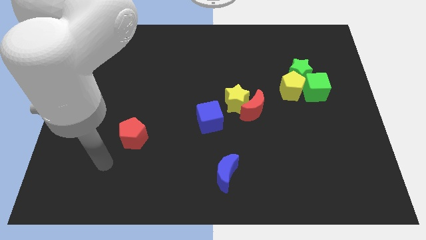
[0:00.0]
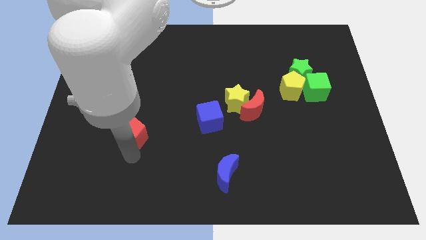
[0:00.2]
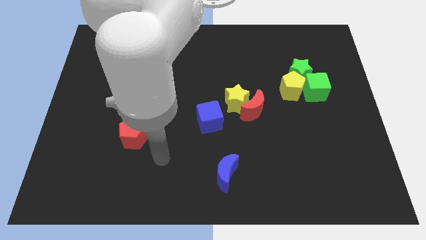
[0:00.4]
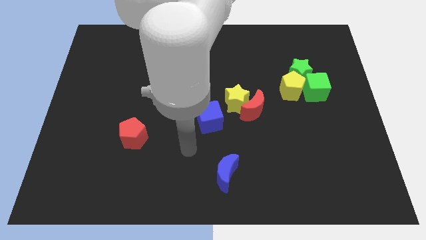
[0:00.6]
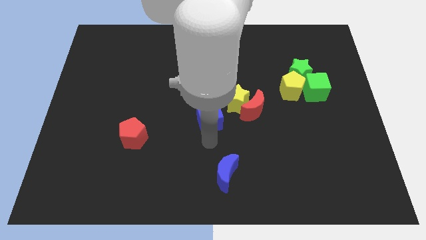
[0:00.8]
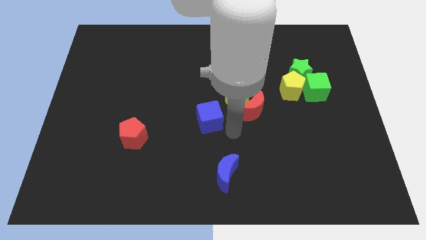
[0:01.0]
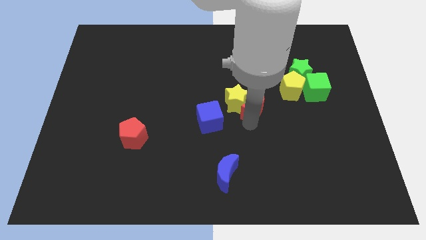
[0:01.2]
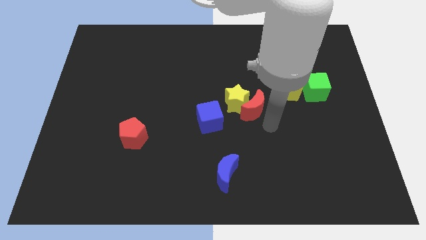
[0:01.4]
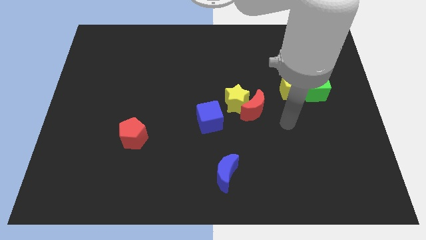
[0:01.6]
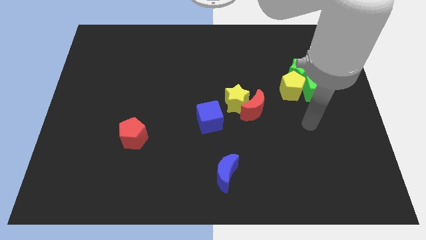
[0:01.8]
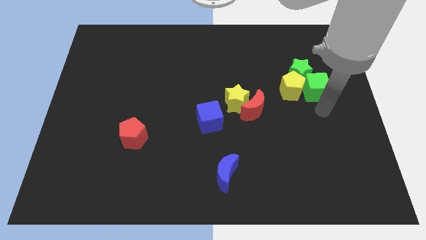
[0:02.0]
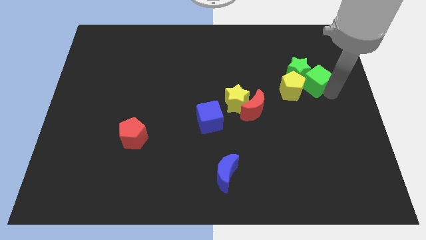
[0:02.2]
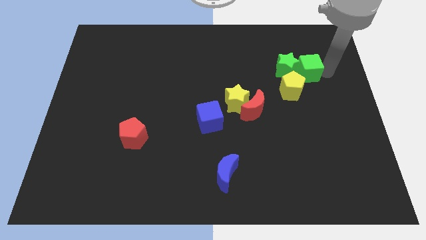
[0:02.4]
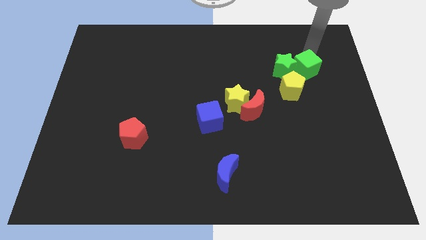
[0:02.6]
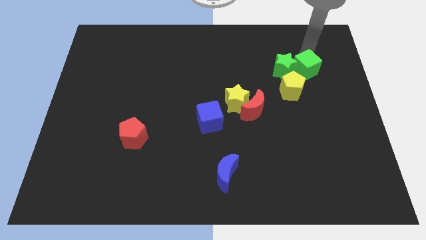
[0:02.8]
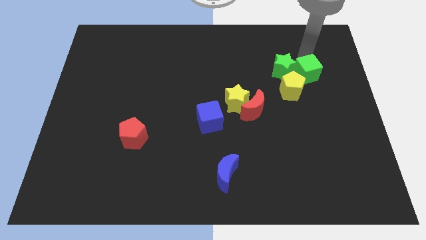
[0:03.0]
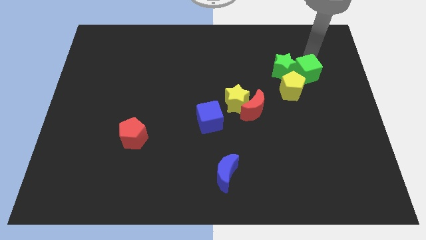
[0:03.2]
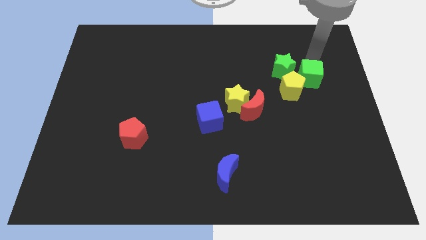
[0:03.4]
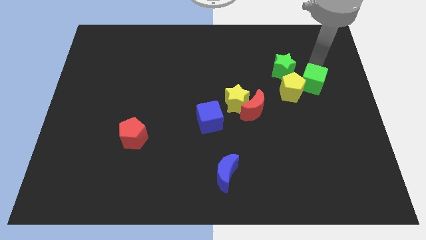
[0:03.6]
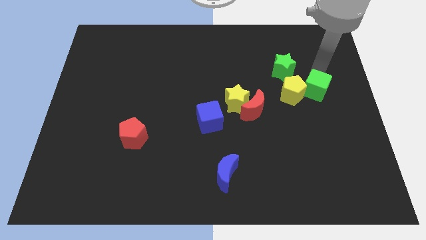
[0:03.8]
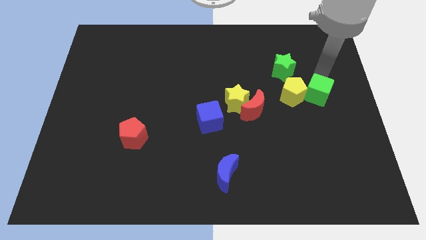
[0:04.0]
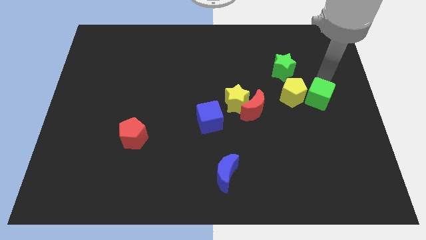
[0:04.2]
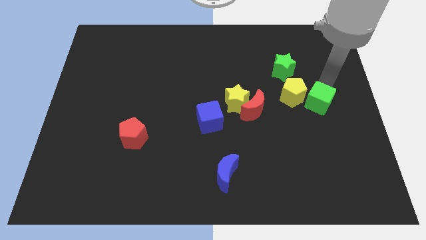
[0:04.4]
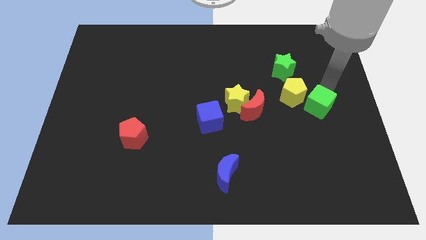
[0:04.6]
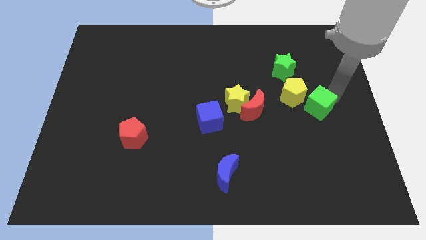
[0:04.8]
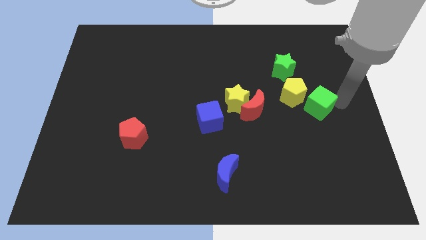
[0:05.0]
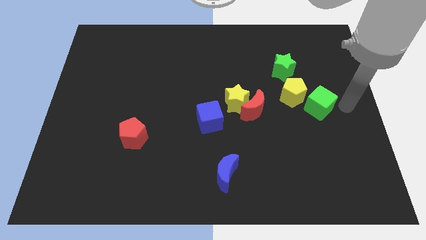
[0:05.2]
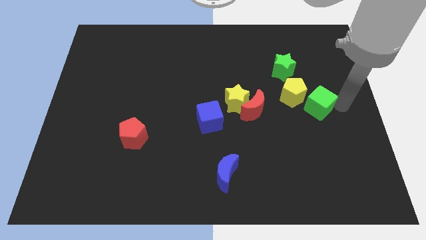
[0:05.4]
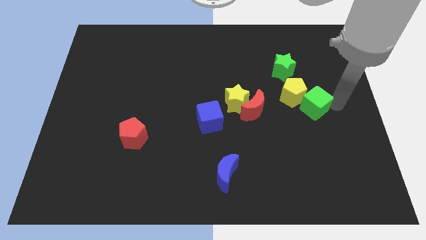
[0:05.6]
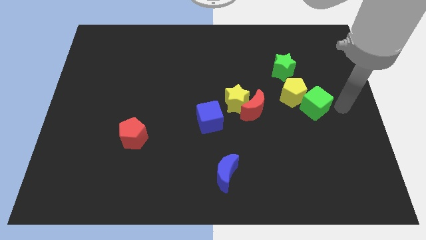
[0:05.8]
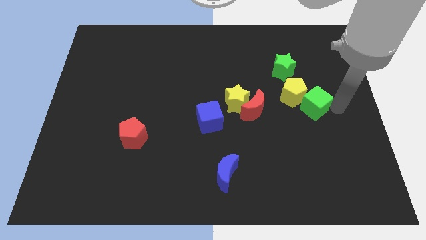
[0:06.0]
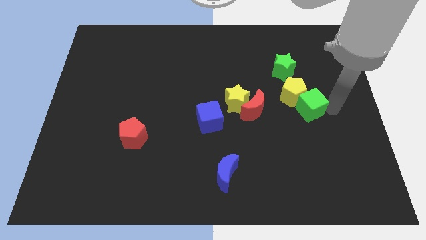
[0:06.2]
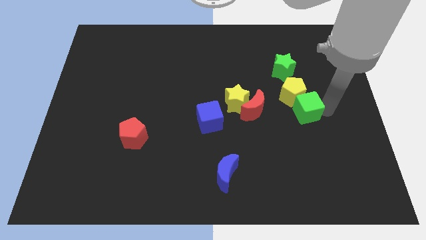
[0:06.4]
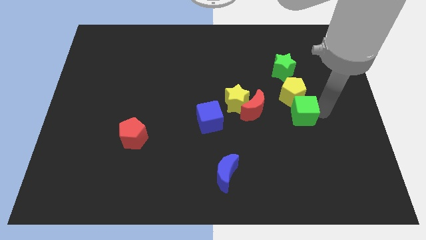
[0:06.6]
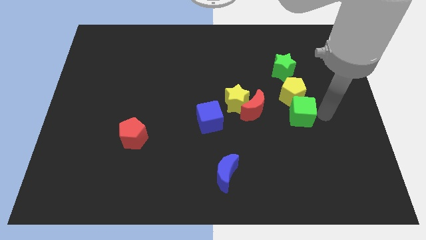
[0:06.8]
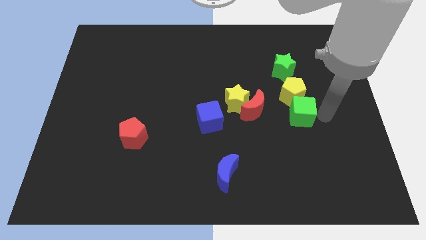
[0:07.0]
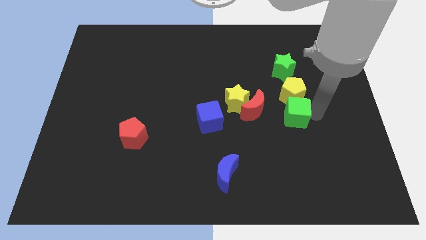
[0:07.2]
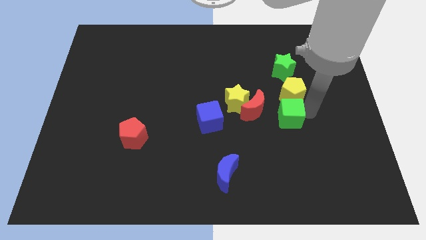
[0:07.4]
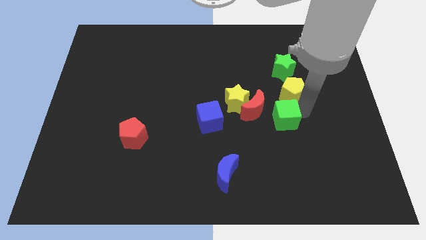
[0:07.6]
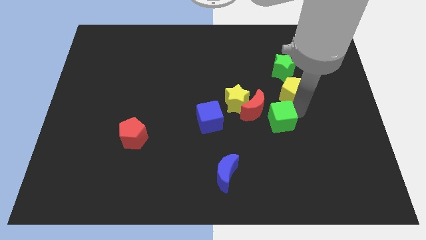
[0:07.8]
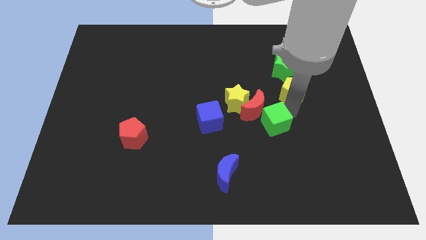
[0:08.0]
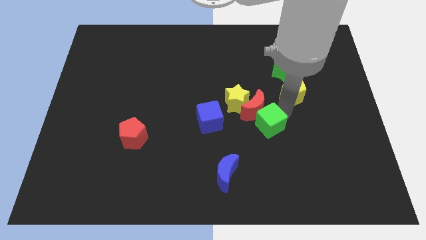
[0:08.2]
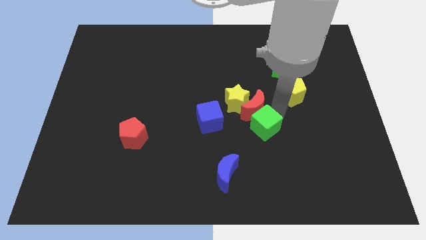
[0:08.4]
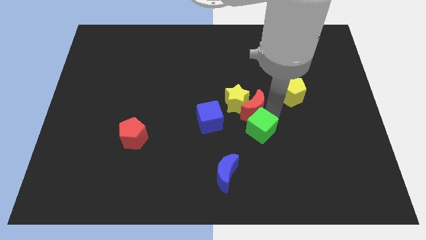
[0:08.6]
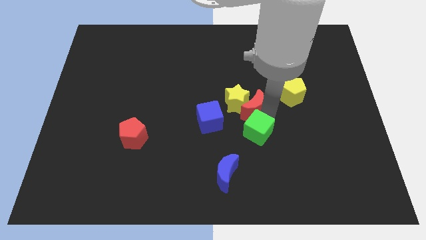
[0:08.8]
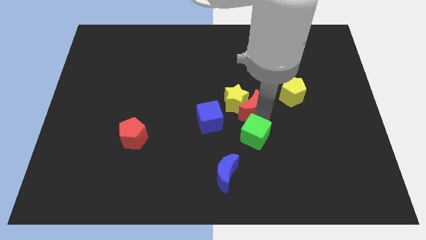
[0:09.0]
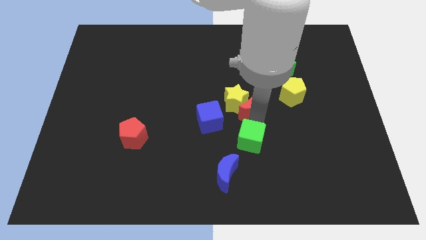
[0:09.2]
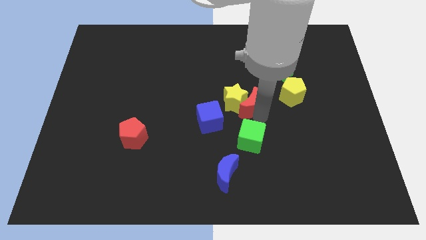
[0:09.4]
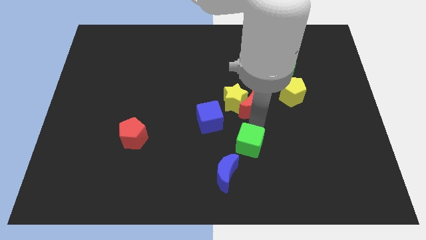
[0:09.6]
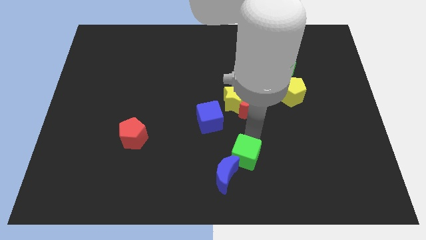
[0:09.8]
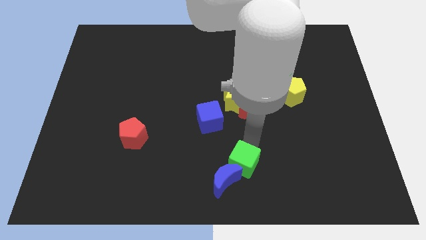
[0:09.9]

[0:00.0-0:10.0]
slide the green cube close to the blue moon

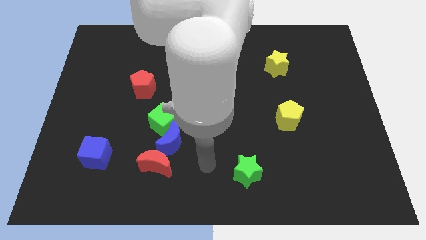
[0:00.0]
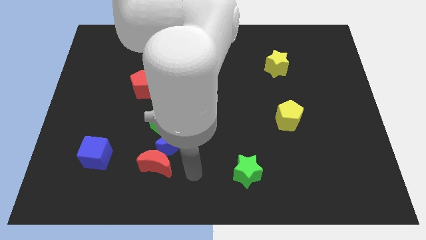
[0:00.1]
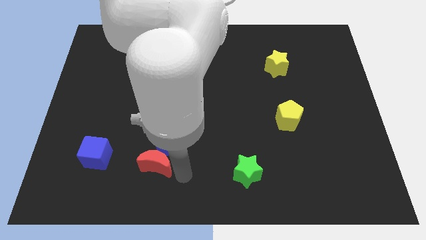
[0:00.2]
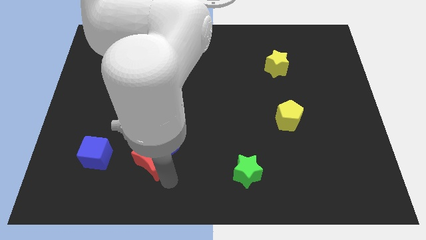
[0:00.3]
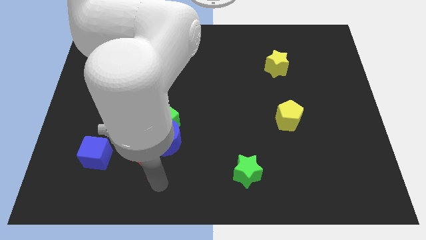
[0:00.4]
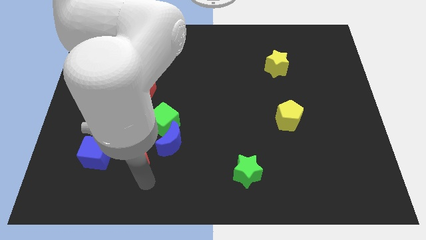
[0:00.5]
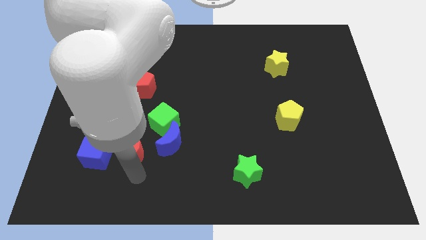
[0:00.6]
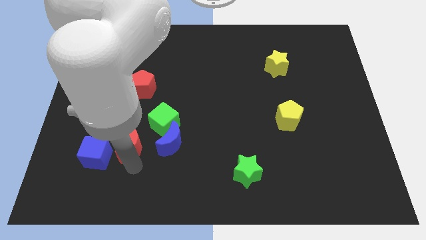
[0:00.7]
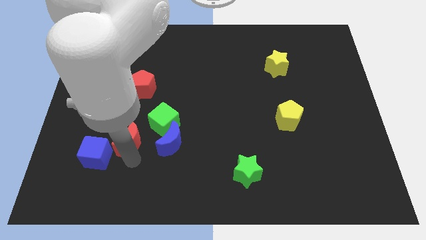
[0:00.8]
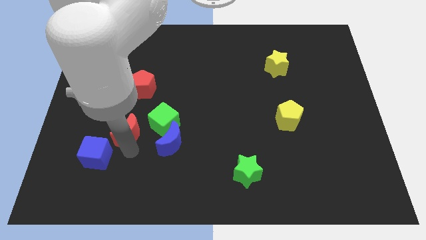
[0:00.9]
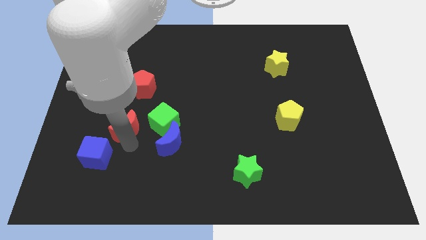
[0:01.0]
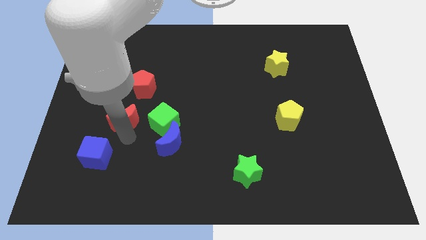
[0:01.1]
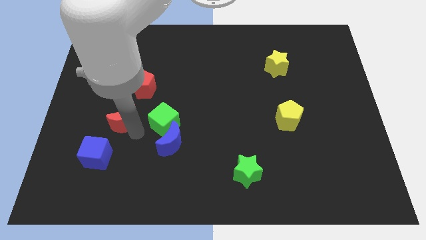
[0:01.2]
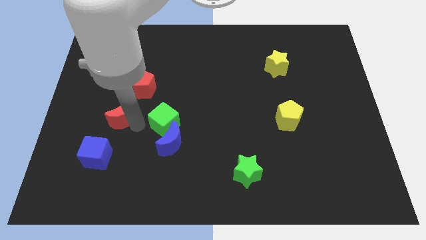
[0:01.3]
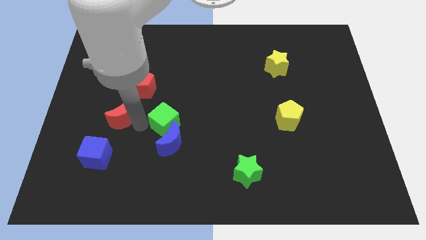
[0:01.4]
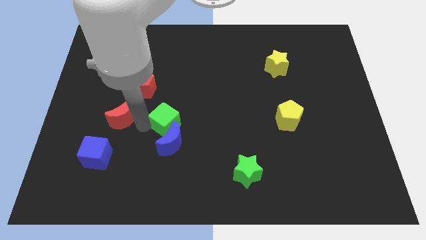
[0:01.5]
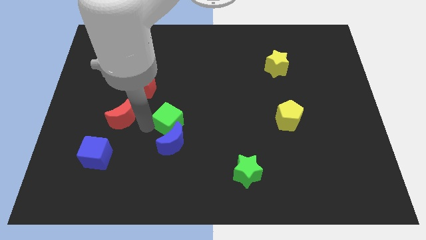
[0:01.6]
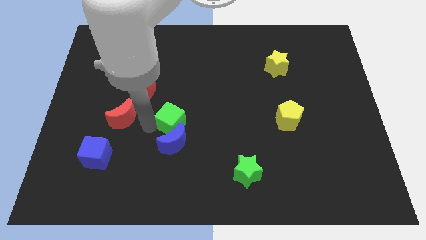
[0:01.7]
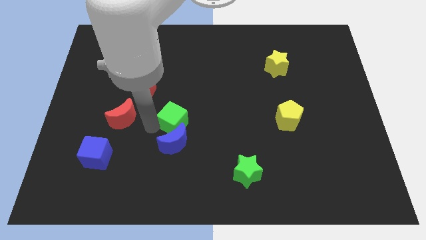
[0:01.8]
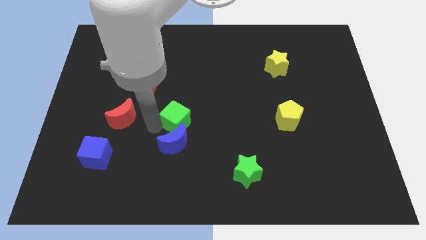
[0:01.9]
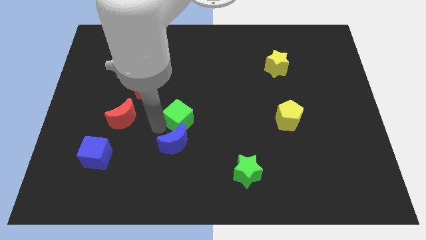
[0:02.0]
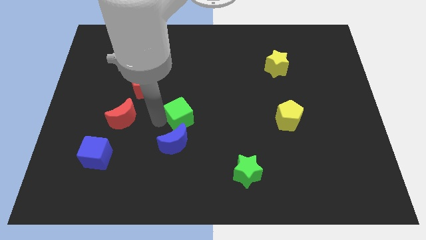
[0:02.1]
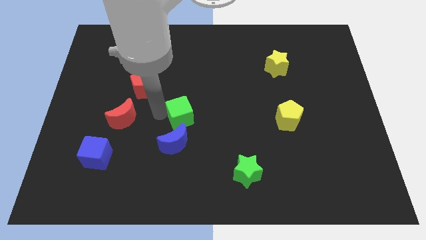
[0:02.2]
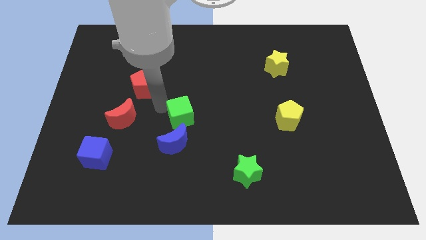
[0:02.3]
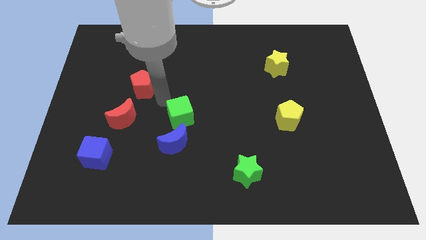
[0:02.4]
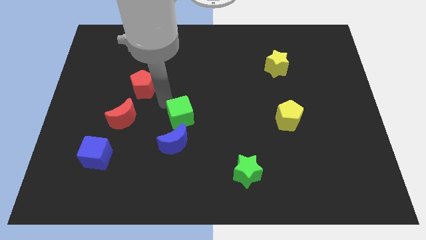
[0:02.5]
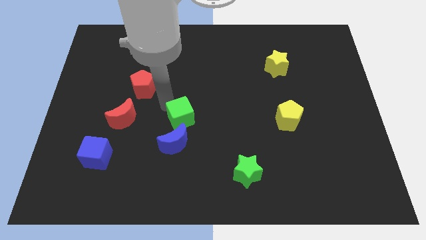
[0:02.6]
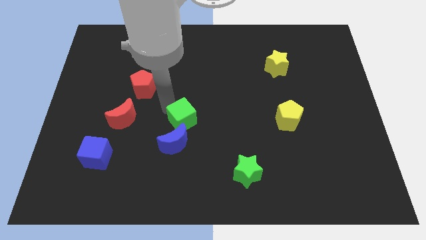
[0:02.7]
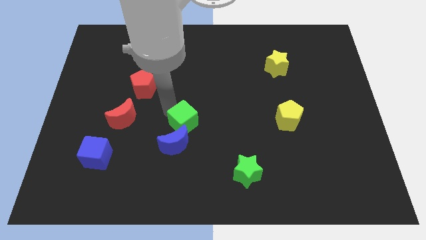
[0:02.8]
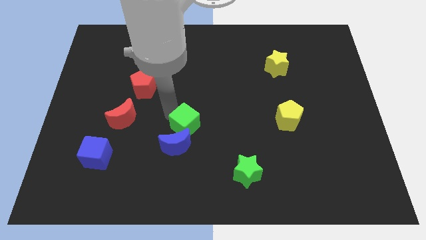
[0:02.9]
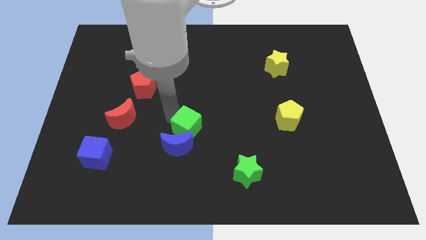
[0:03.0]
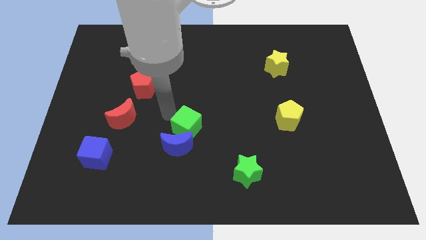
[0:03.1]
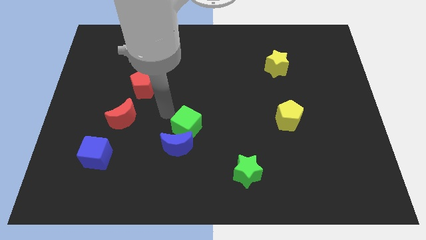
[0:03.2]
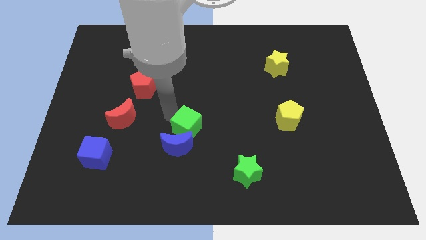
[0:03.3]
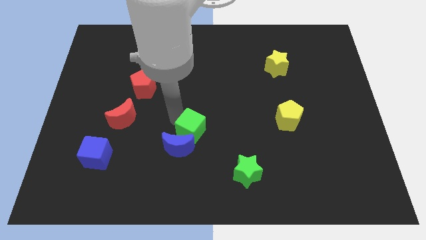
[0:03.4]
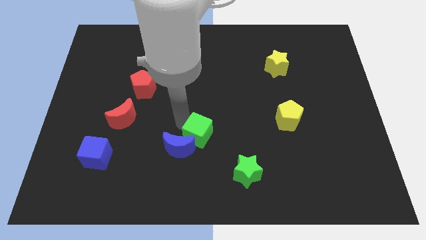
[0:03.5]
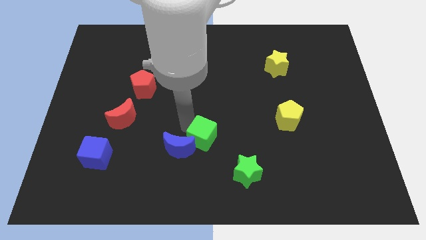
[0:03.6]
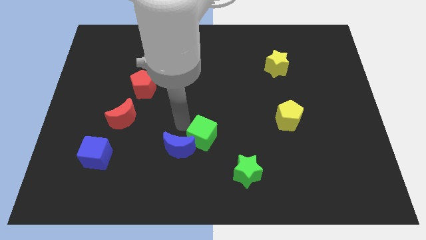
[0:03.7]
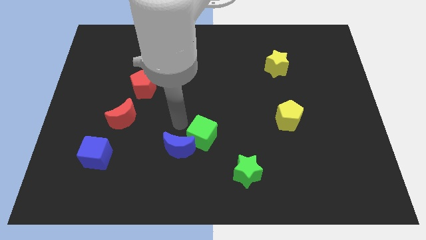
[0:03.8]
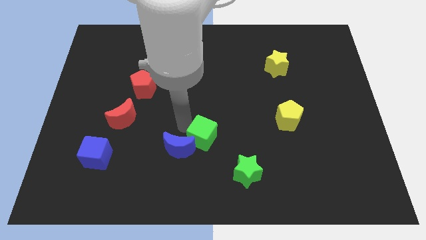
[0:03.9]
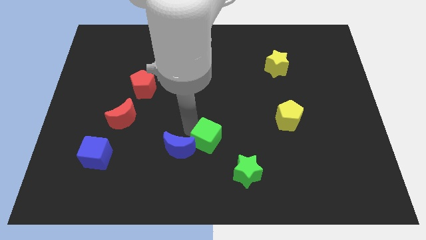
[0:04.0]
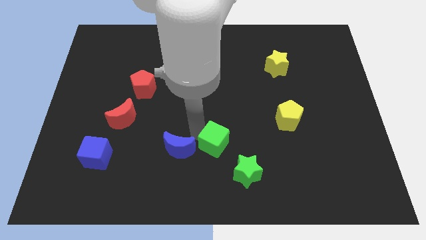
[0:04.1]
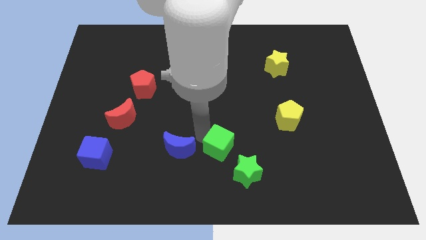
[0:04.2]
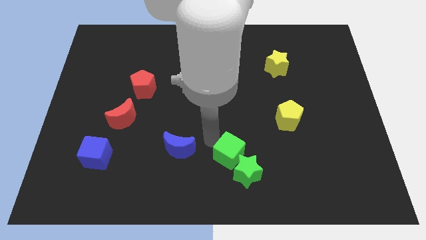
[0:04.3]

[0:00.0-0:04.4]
push the green cube next to the green star
